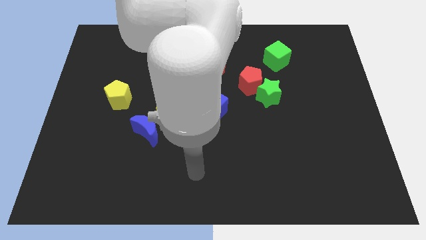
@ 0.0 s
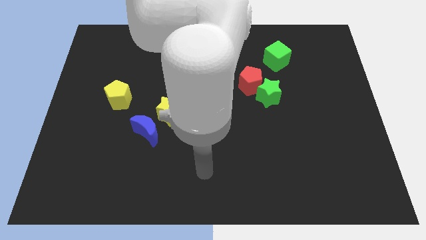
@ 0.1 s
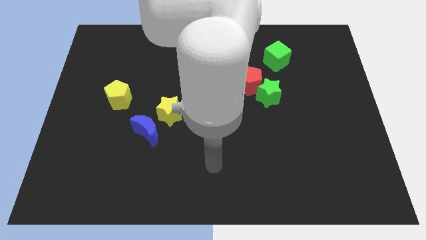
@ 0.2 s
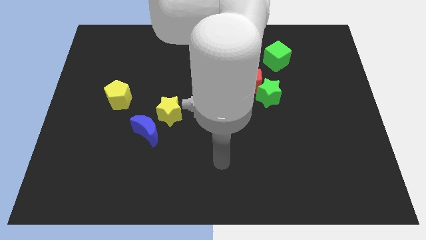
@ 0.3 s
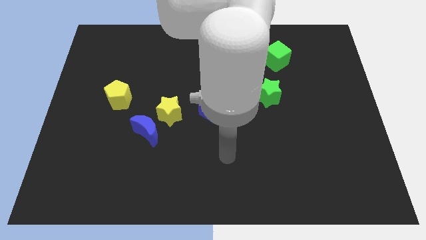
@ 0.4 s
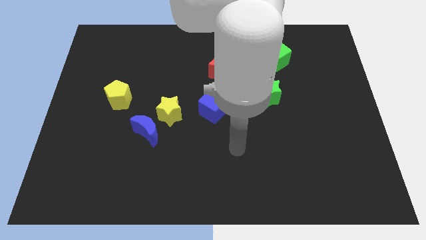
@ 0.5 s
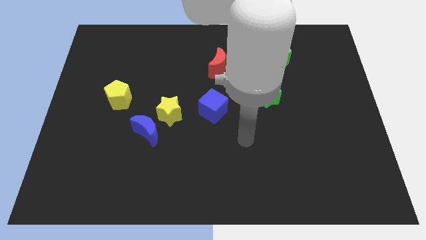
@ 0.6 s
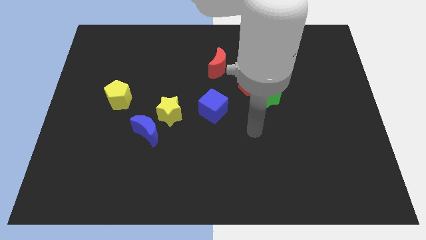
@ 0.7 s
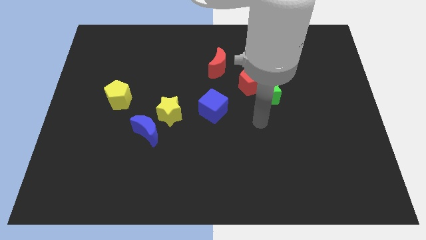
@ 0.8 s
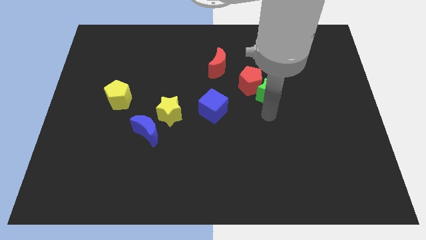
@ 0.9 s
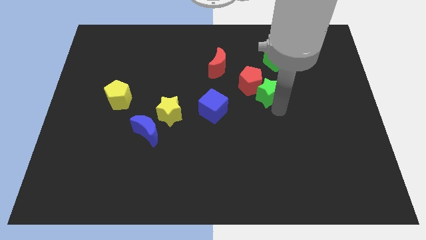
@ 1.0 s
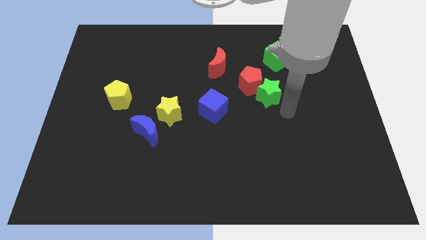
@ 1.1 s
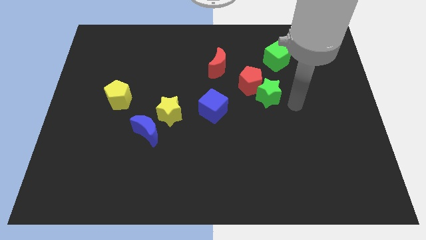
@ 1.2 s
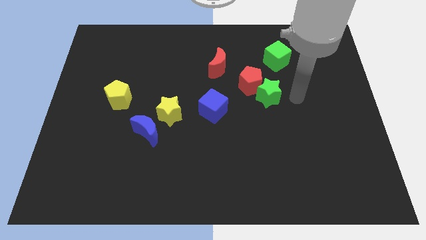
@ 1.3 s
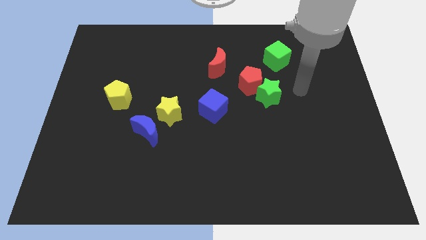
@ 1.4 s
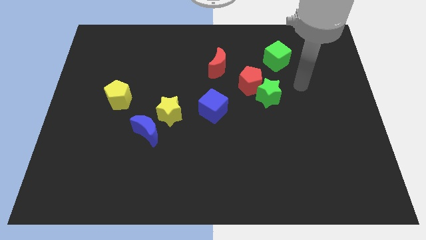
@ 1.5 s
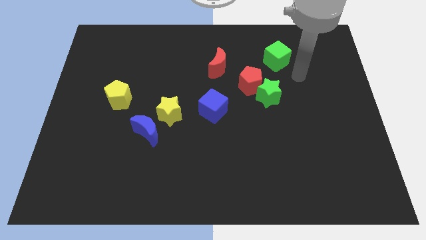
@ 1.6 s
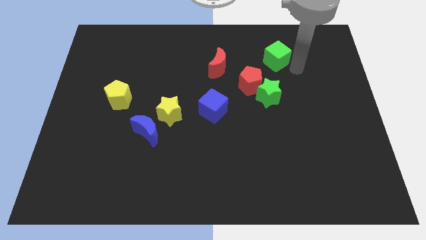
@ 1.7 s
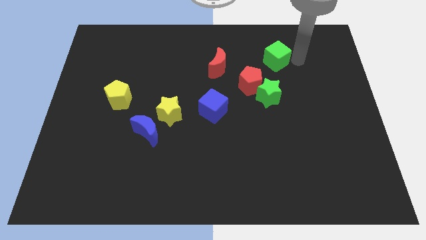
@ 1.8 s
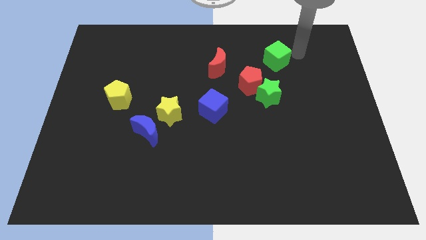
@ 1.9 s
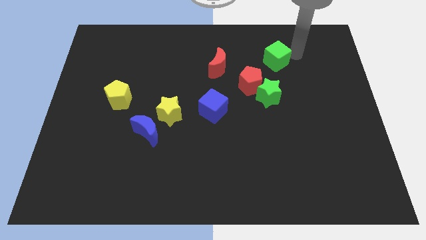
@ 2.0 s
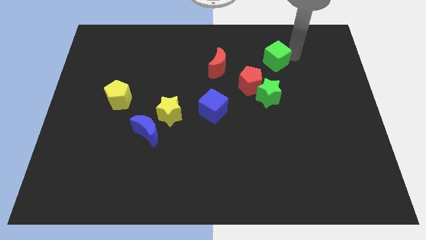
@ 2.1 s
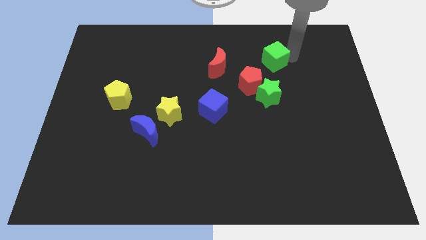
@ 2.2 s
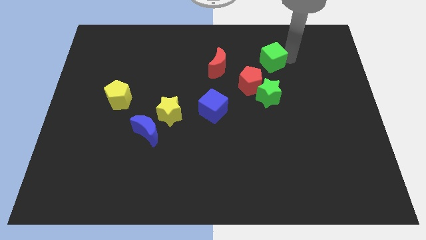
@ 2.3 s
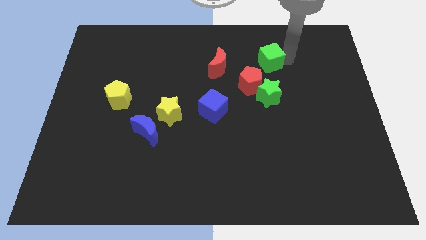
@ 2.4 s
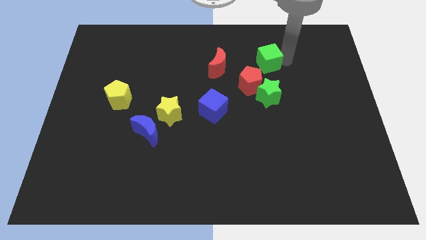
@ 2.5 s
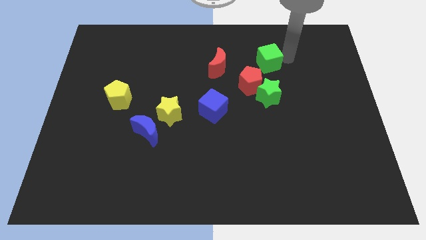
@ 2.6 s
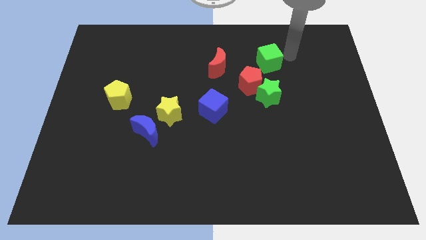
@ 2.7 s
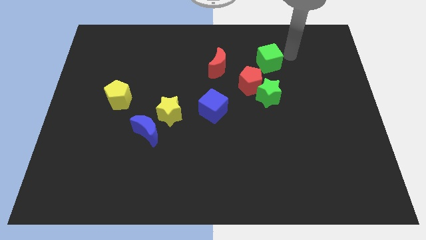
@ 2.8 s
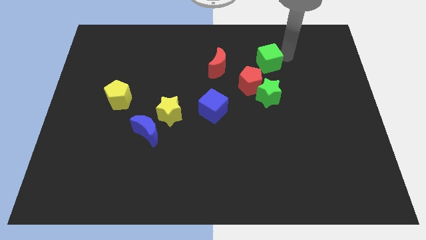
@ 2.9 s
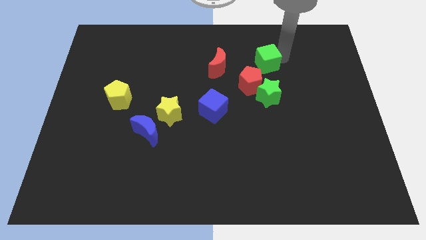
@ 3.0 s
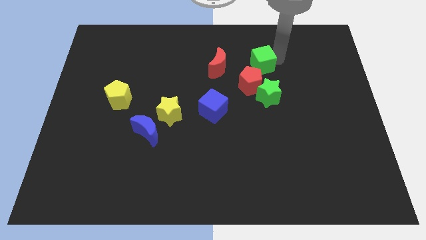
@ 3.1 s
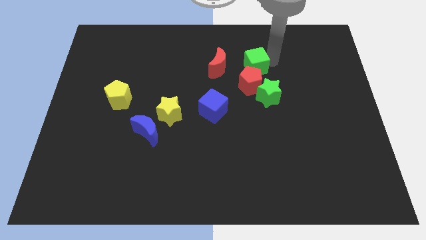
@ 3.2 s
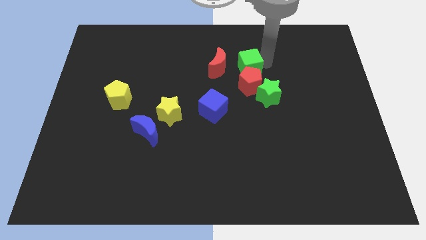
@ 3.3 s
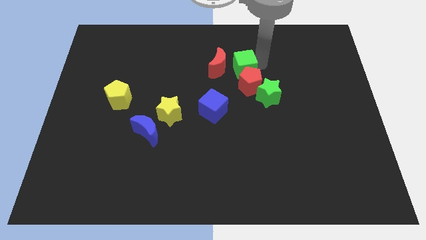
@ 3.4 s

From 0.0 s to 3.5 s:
slide the green cube slightly down and then left

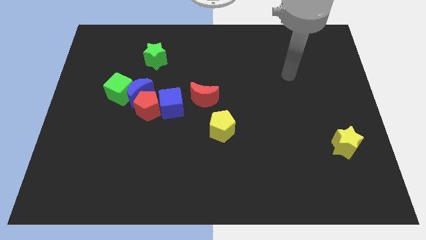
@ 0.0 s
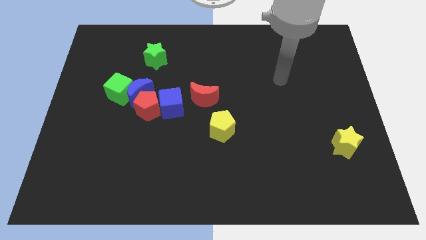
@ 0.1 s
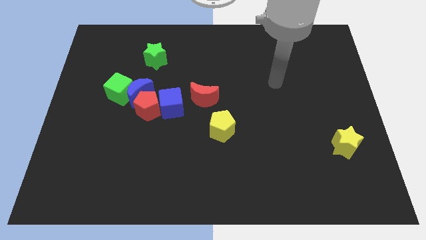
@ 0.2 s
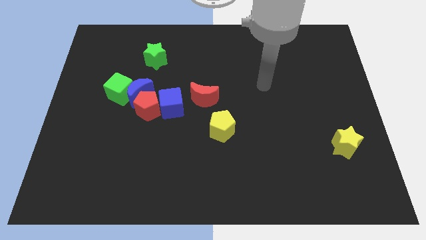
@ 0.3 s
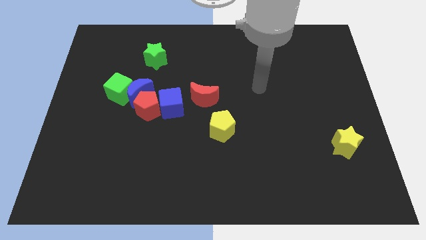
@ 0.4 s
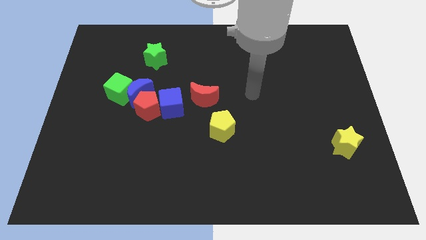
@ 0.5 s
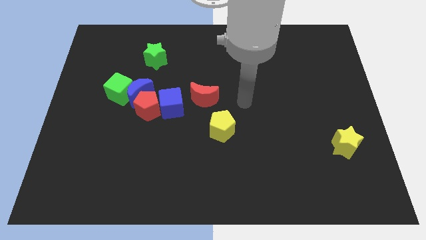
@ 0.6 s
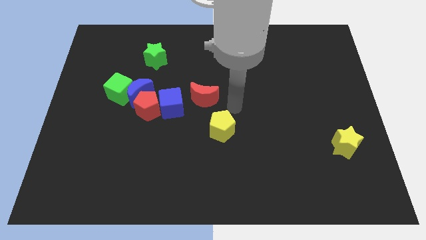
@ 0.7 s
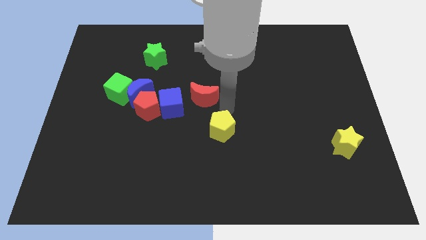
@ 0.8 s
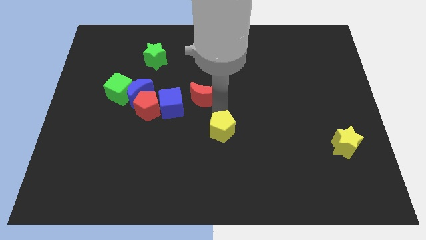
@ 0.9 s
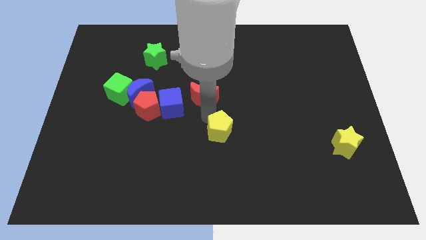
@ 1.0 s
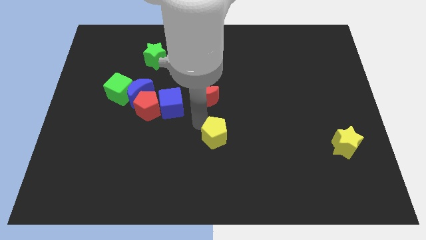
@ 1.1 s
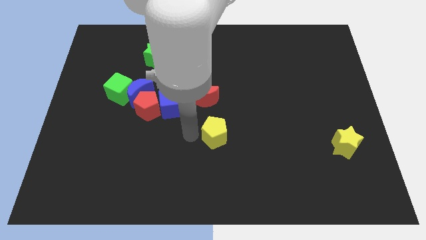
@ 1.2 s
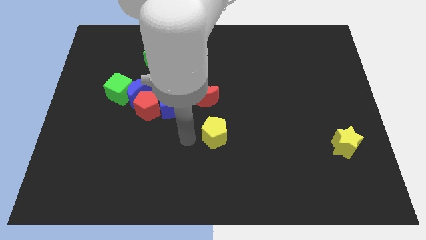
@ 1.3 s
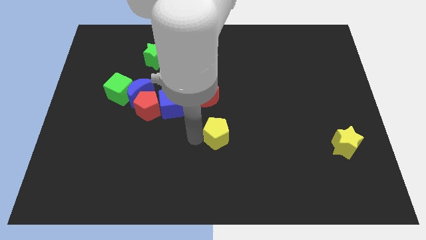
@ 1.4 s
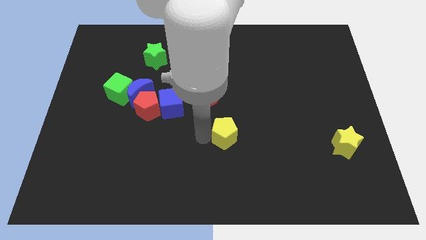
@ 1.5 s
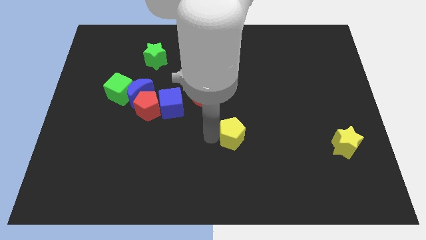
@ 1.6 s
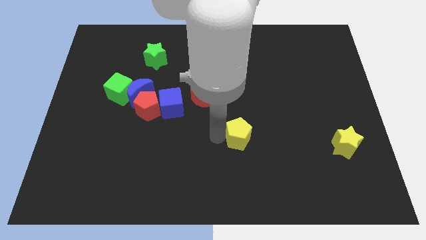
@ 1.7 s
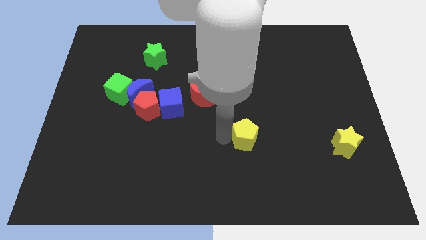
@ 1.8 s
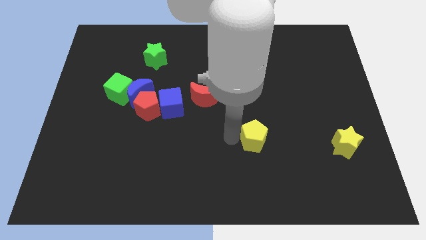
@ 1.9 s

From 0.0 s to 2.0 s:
move the yellow pentagon right a bit

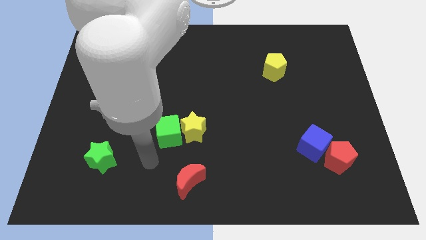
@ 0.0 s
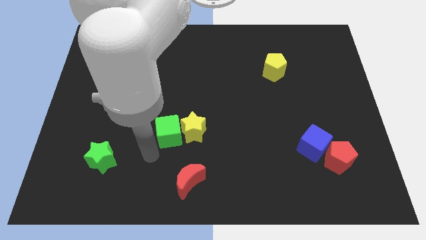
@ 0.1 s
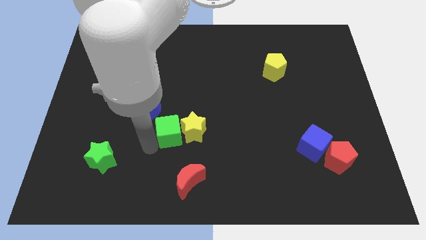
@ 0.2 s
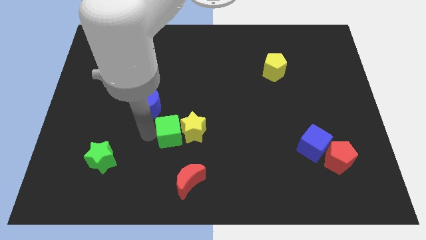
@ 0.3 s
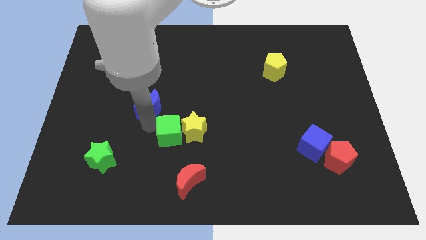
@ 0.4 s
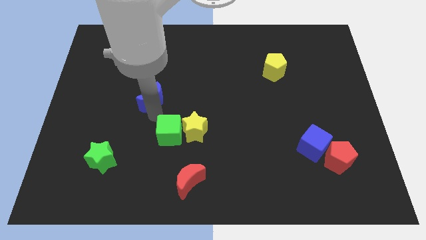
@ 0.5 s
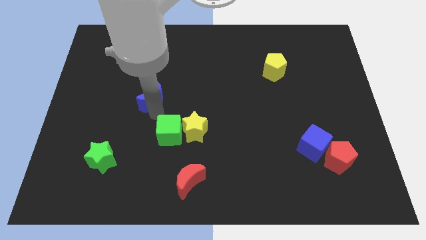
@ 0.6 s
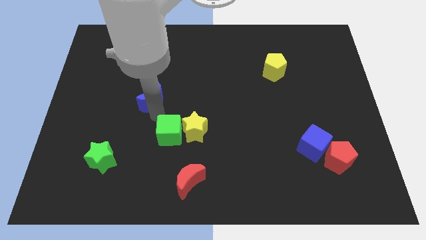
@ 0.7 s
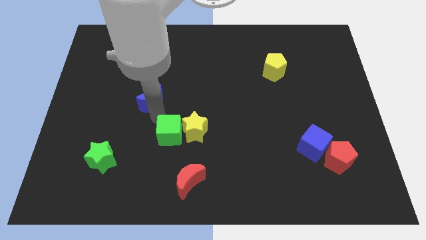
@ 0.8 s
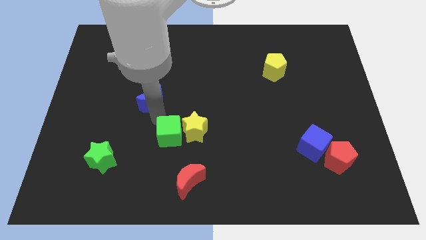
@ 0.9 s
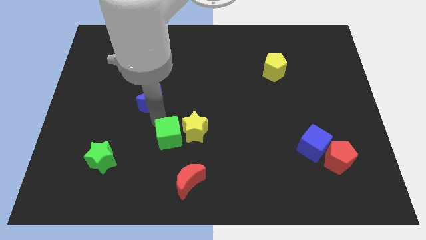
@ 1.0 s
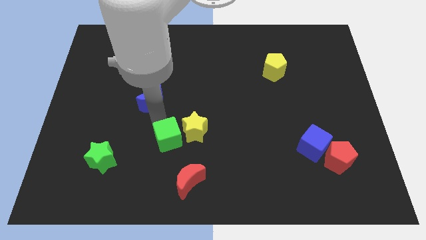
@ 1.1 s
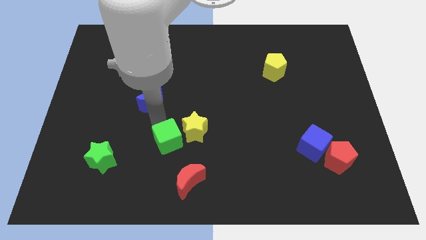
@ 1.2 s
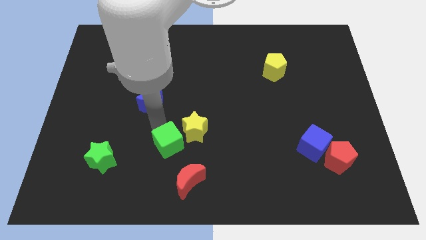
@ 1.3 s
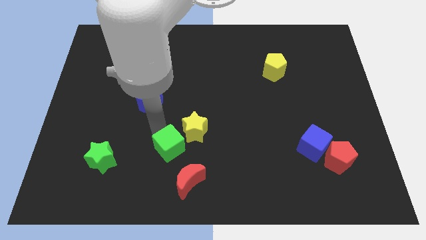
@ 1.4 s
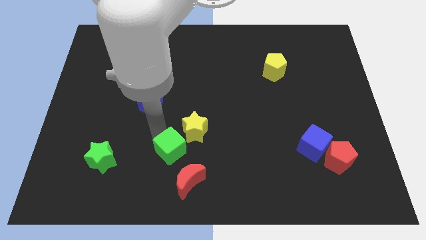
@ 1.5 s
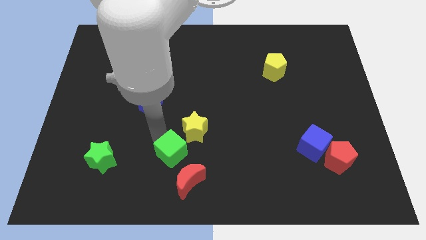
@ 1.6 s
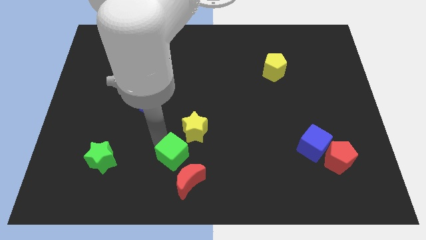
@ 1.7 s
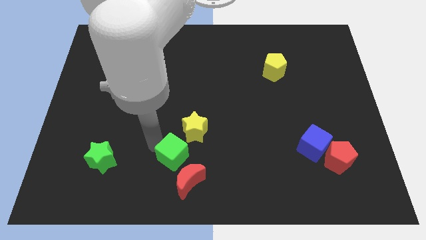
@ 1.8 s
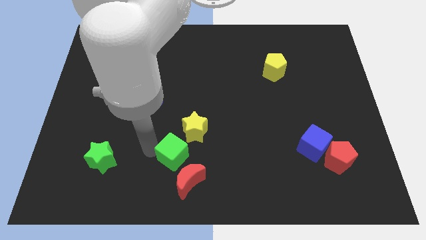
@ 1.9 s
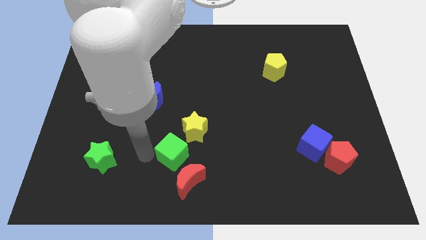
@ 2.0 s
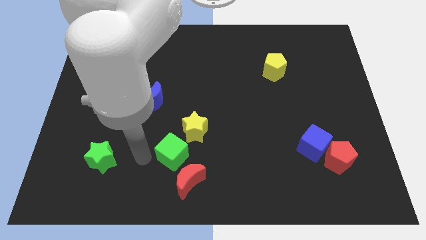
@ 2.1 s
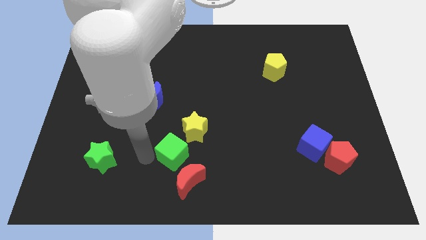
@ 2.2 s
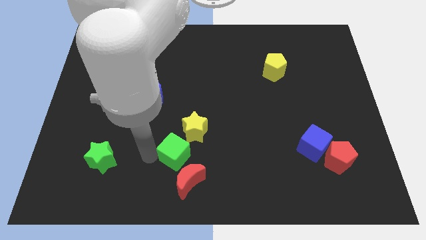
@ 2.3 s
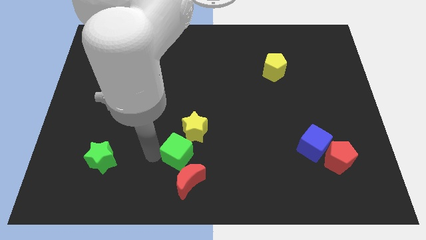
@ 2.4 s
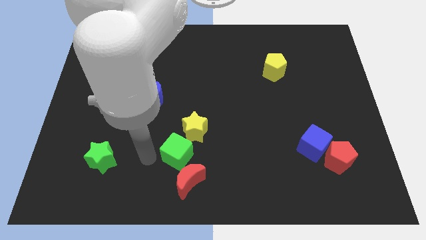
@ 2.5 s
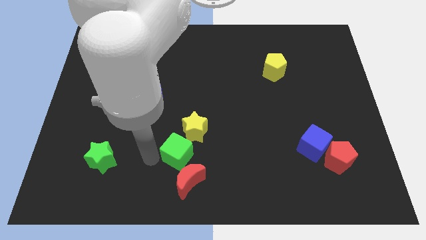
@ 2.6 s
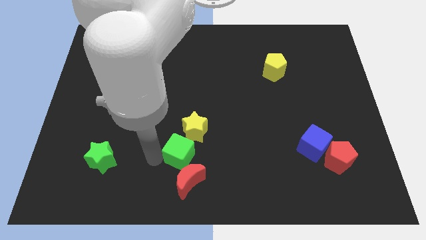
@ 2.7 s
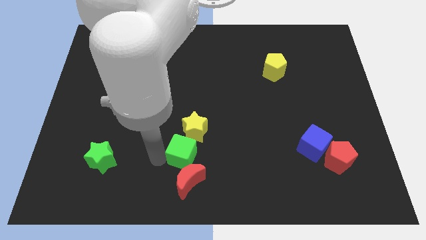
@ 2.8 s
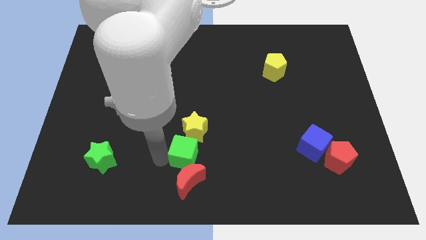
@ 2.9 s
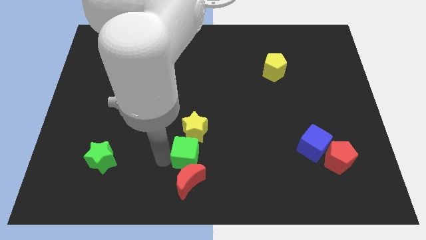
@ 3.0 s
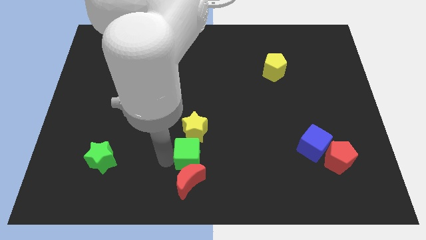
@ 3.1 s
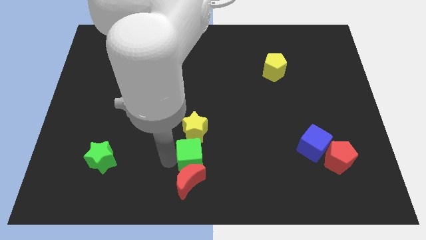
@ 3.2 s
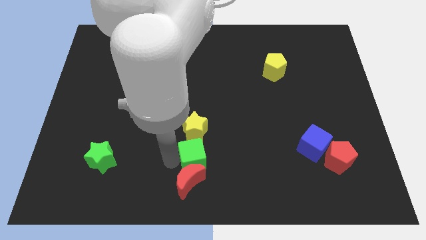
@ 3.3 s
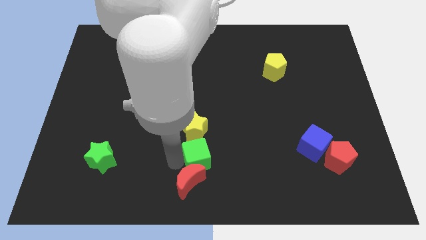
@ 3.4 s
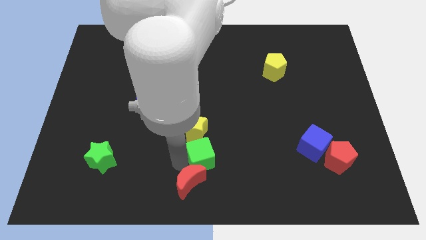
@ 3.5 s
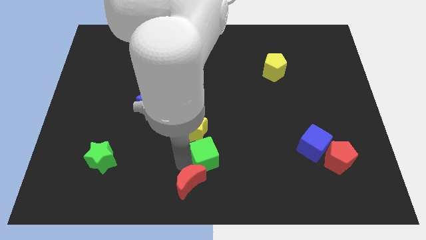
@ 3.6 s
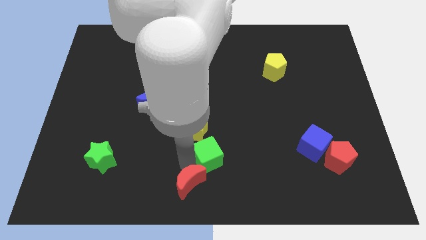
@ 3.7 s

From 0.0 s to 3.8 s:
slide the green cube to the right slightly
